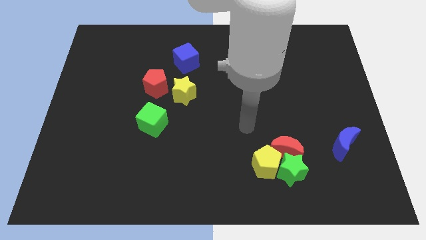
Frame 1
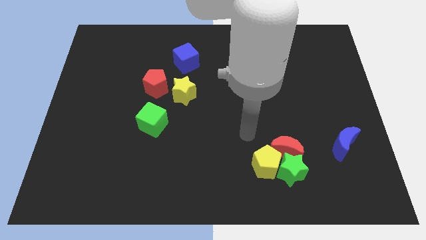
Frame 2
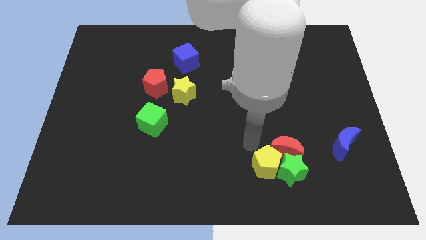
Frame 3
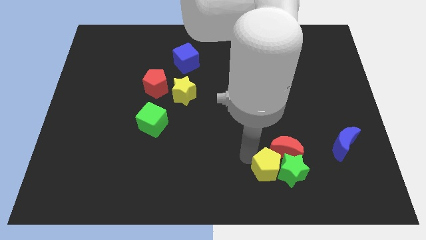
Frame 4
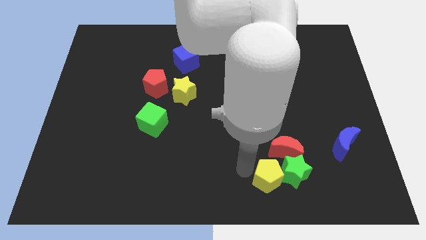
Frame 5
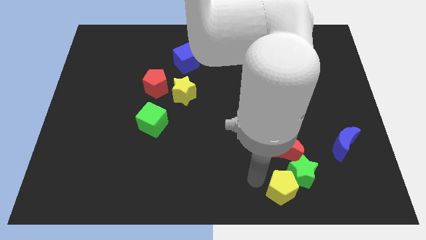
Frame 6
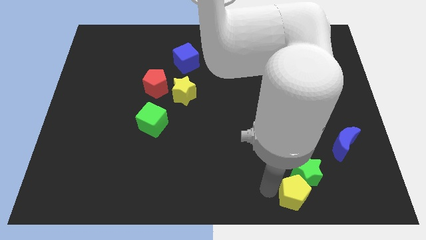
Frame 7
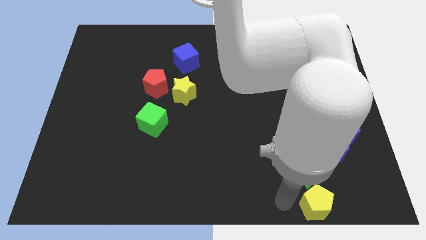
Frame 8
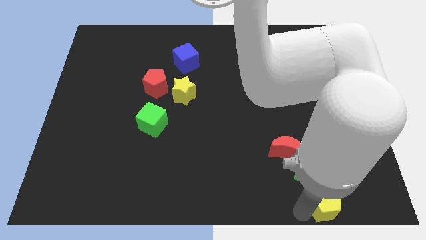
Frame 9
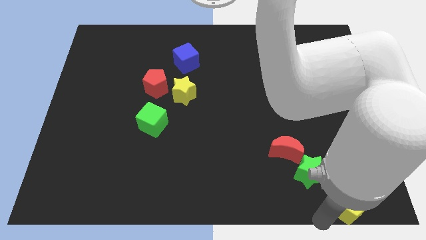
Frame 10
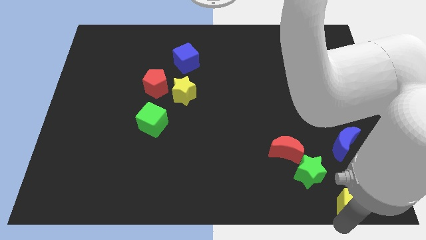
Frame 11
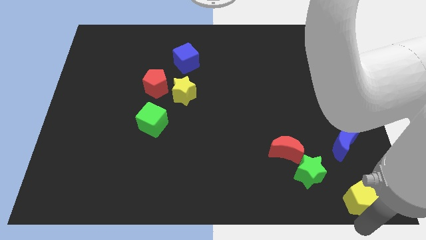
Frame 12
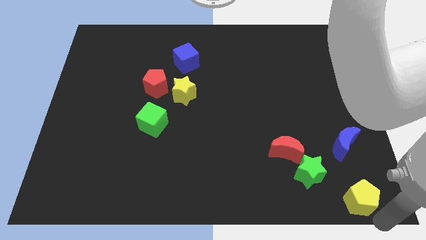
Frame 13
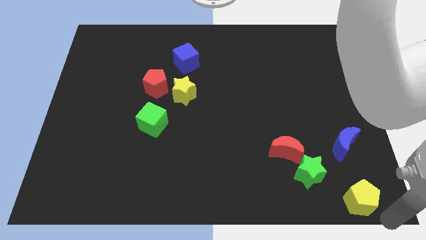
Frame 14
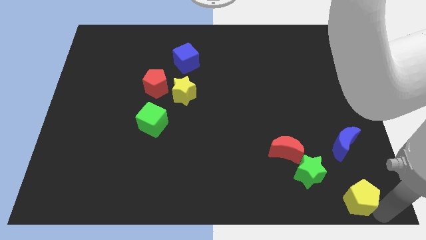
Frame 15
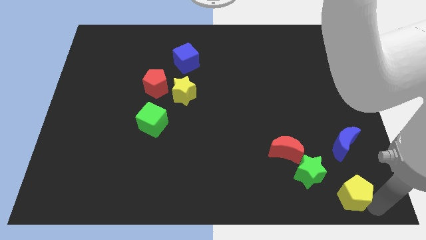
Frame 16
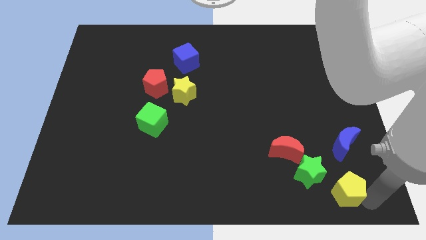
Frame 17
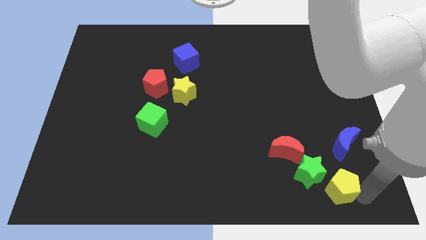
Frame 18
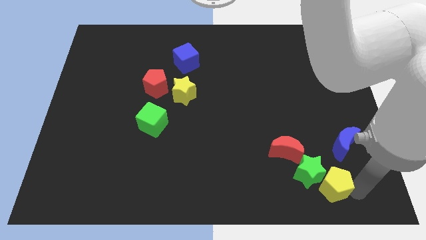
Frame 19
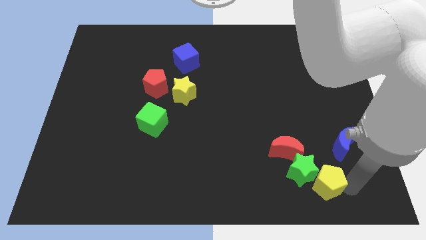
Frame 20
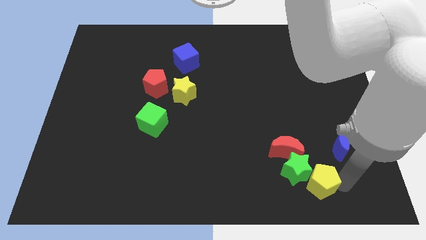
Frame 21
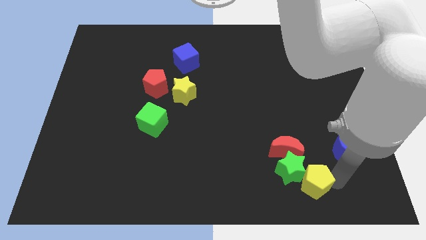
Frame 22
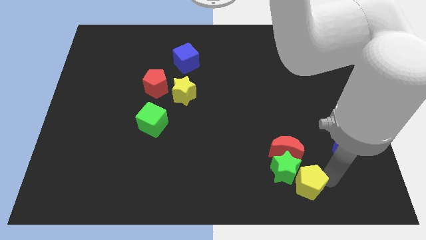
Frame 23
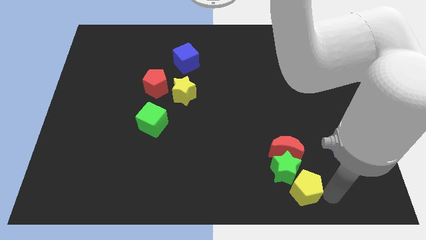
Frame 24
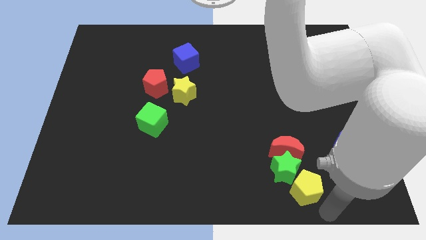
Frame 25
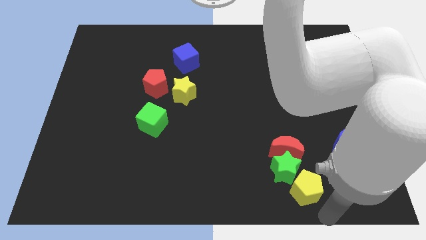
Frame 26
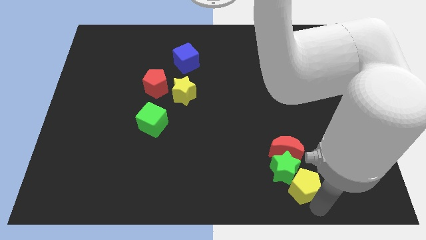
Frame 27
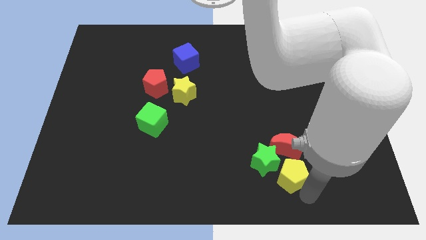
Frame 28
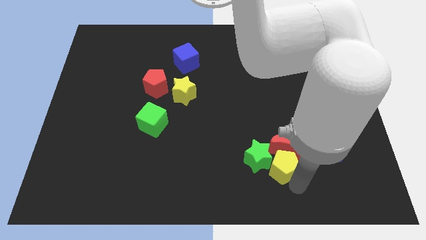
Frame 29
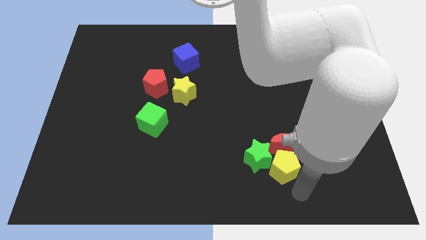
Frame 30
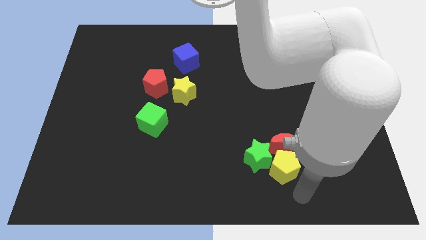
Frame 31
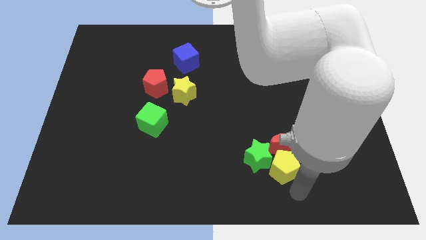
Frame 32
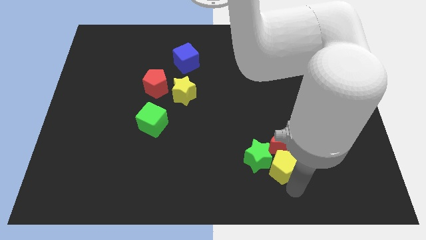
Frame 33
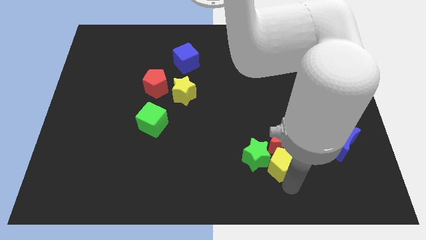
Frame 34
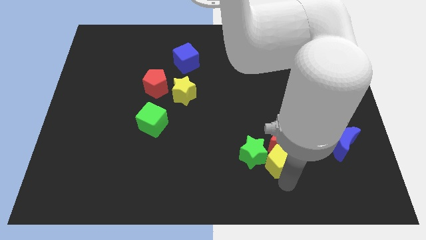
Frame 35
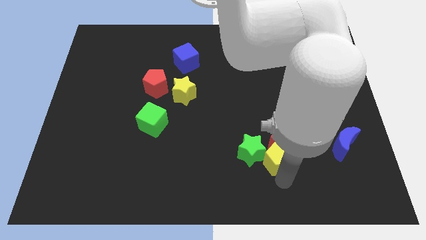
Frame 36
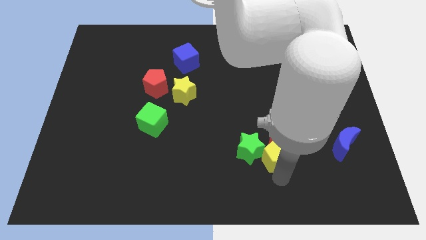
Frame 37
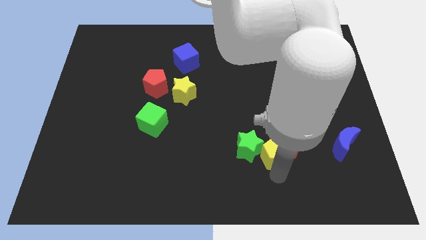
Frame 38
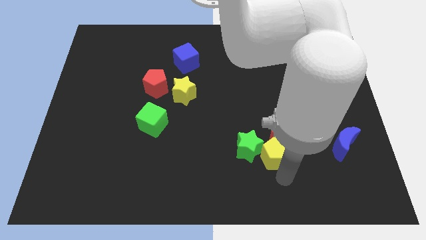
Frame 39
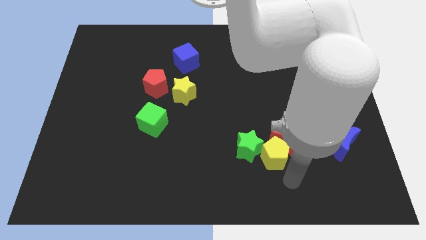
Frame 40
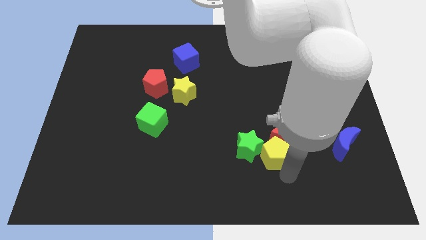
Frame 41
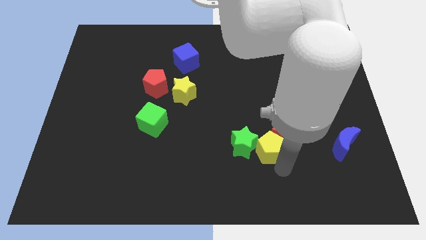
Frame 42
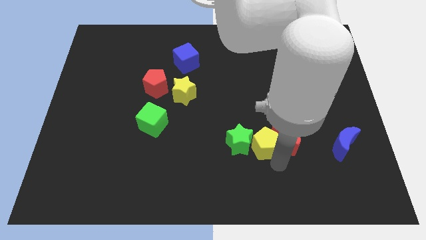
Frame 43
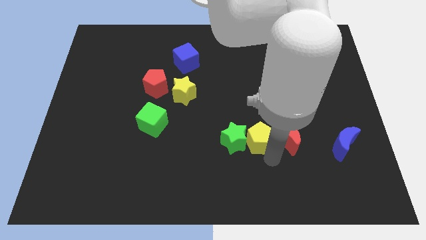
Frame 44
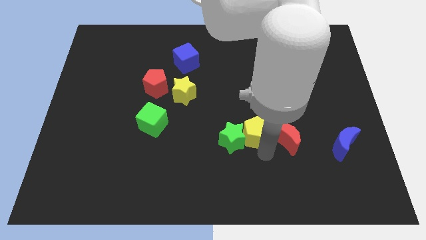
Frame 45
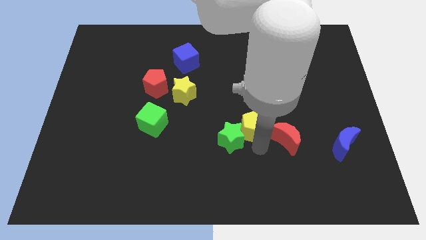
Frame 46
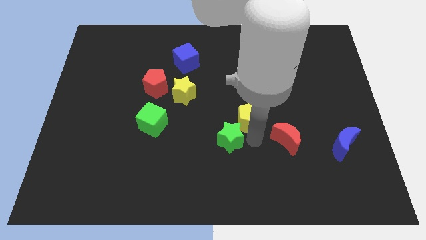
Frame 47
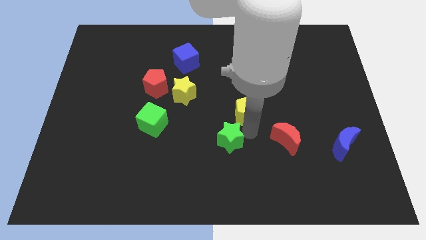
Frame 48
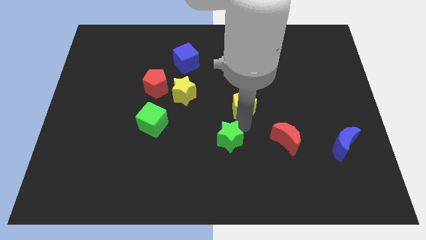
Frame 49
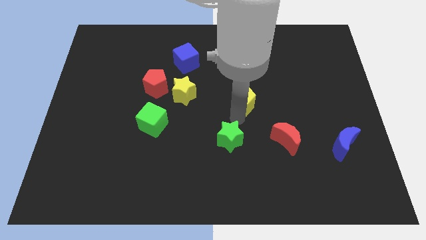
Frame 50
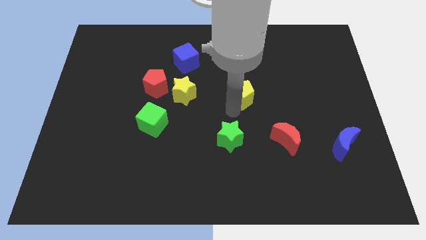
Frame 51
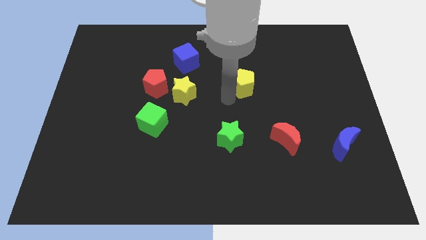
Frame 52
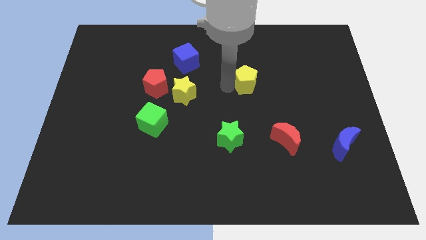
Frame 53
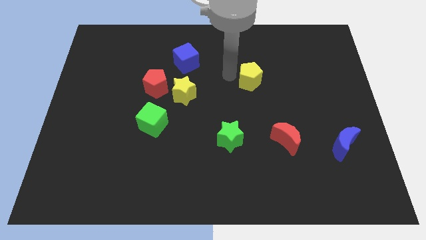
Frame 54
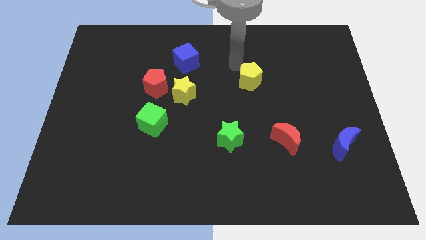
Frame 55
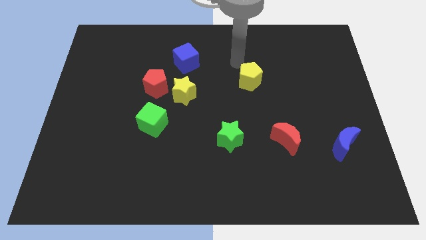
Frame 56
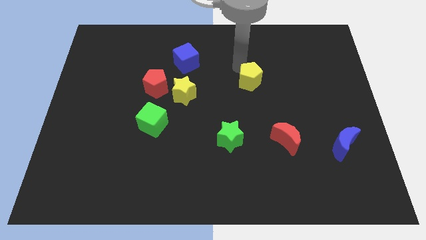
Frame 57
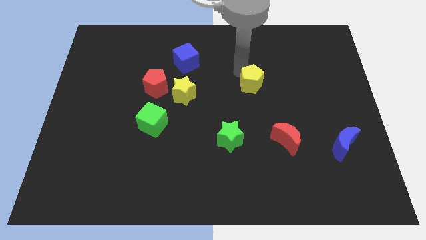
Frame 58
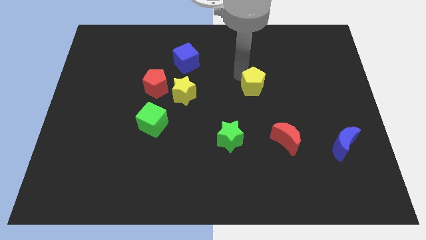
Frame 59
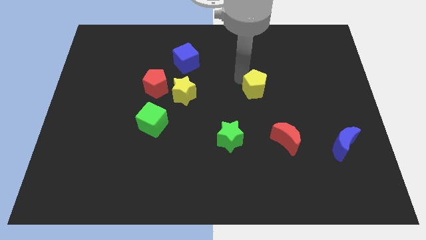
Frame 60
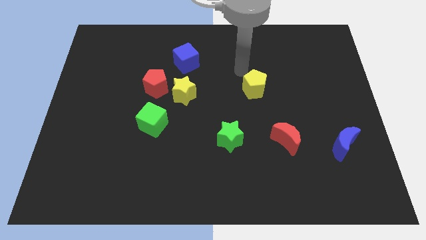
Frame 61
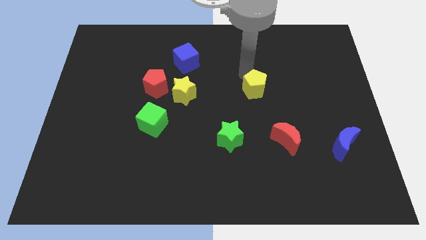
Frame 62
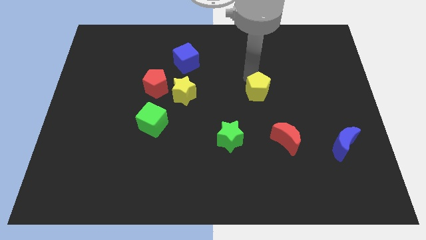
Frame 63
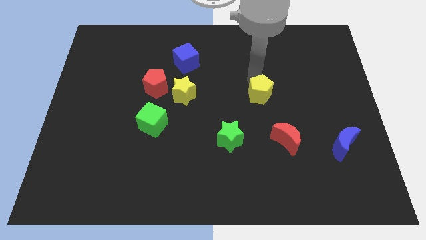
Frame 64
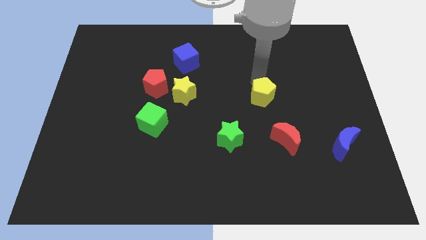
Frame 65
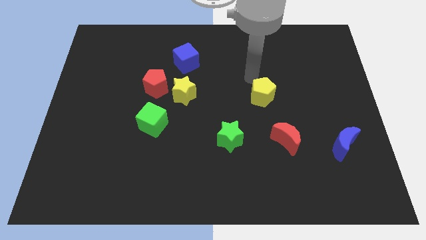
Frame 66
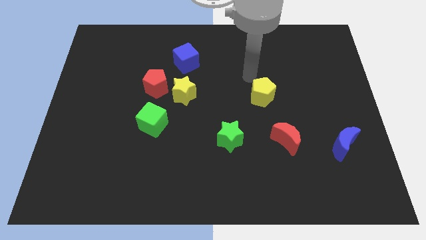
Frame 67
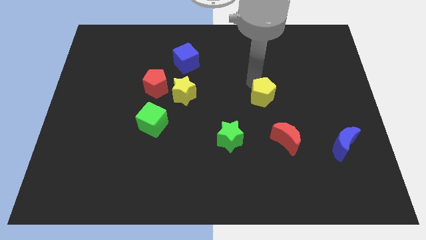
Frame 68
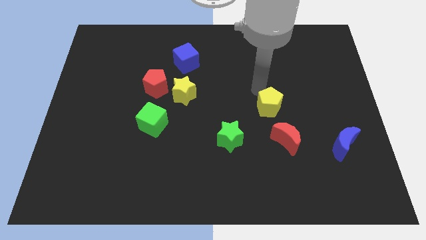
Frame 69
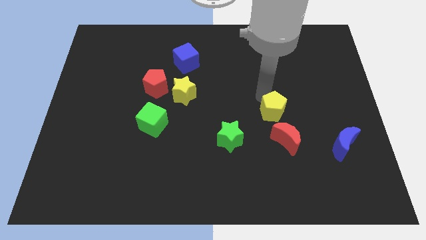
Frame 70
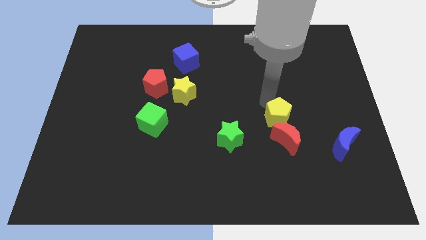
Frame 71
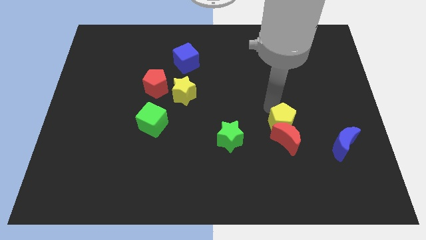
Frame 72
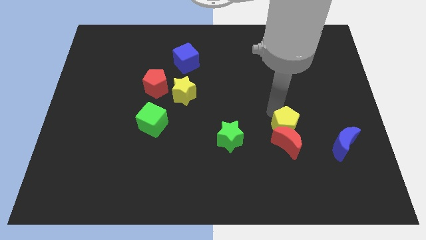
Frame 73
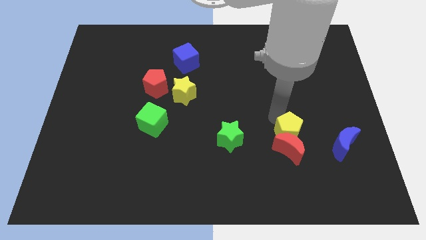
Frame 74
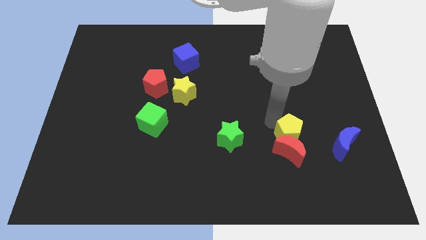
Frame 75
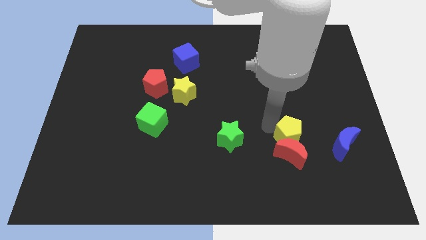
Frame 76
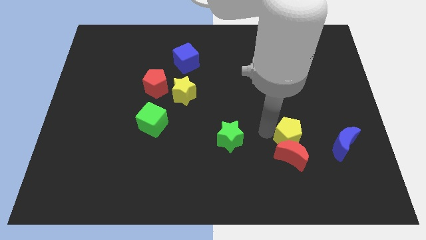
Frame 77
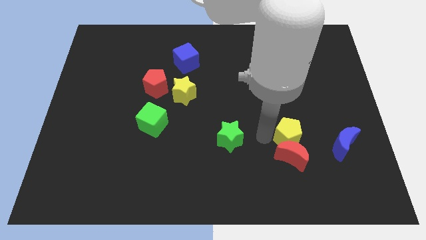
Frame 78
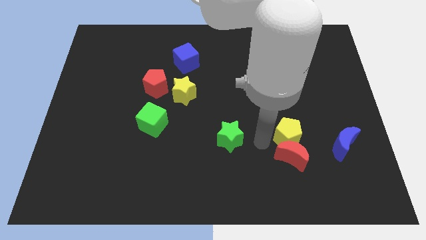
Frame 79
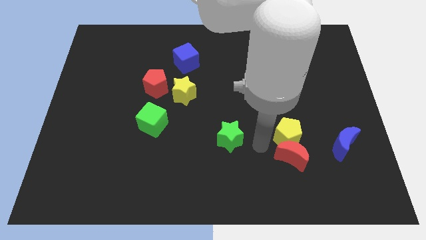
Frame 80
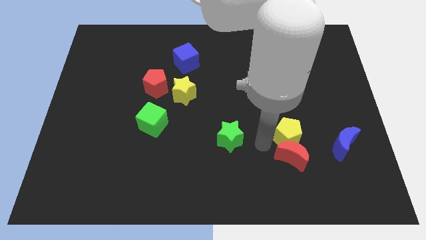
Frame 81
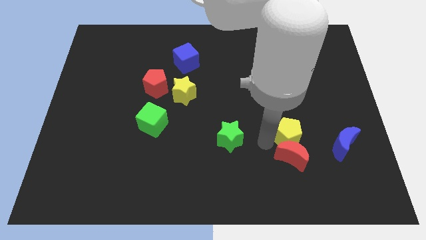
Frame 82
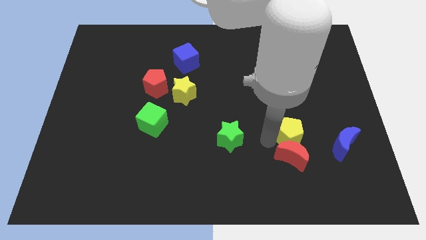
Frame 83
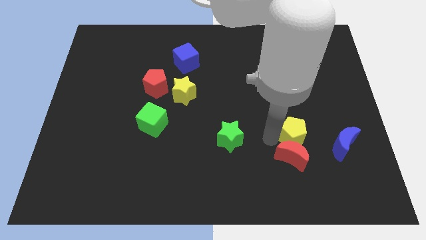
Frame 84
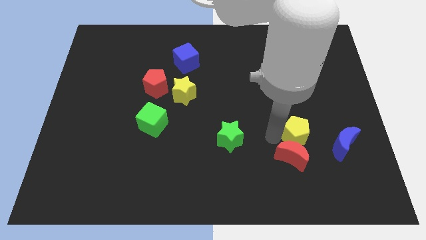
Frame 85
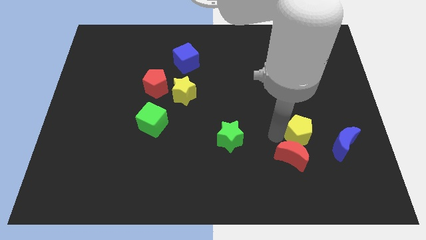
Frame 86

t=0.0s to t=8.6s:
push the yellow pentagon diagonally up and to the left of the blue moon
